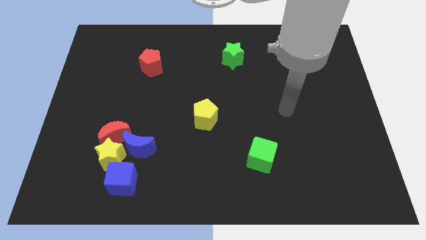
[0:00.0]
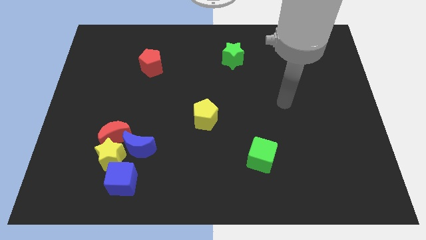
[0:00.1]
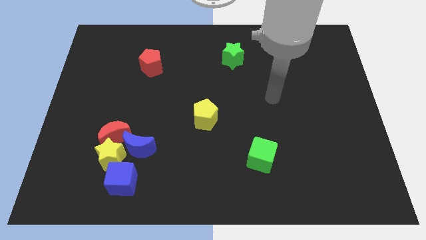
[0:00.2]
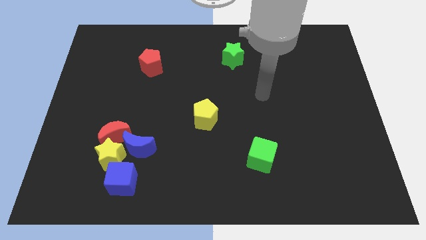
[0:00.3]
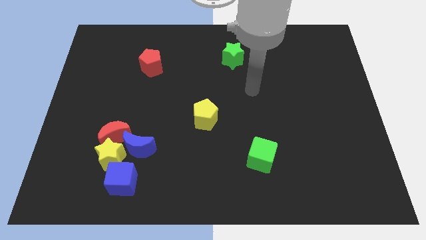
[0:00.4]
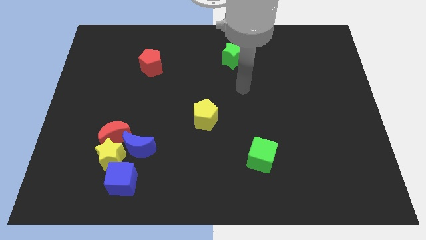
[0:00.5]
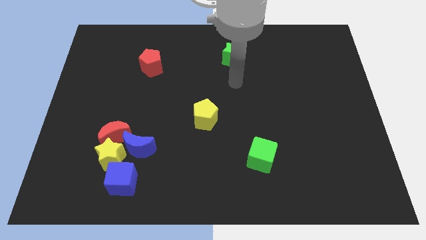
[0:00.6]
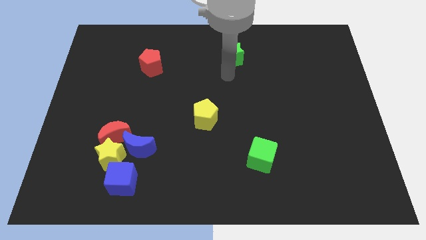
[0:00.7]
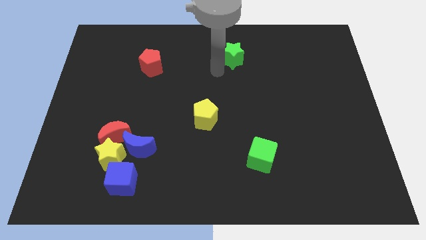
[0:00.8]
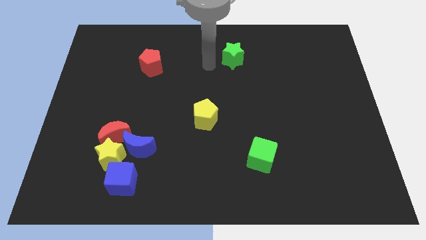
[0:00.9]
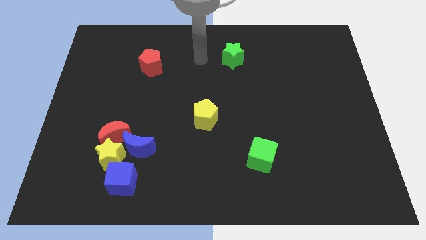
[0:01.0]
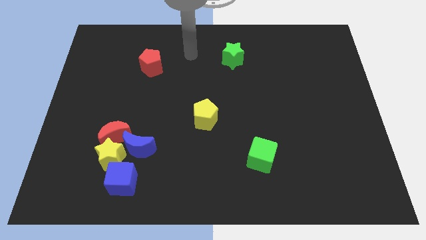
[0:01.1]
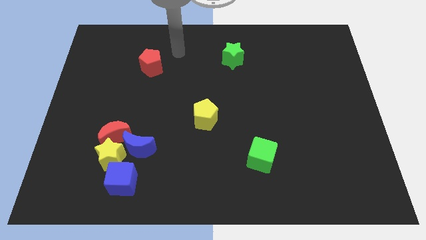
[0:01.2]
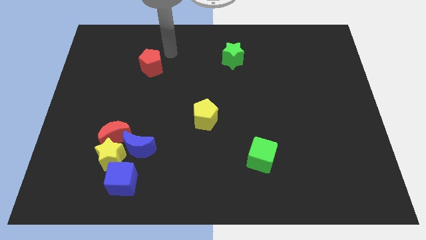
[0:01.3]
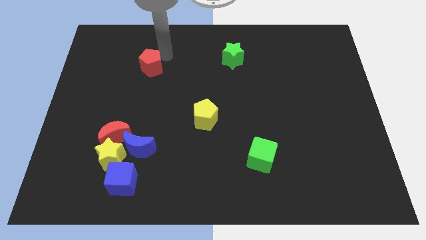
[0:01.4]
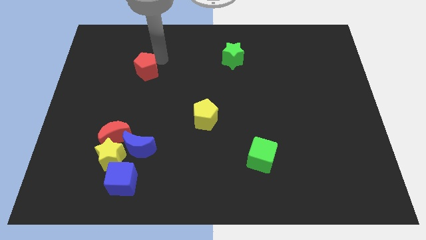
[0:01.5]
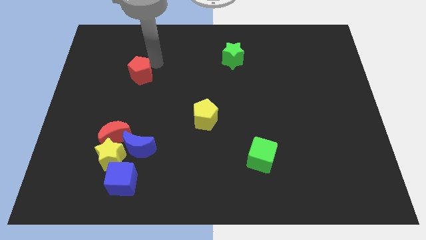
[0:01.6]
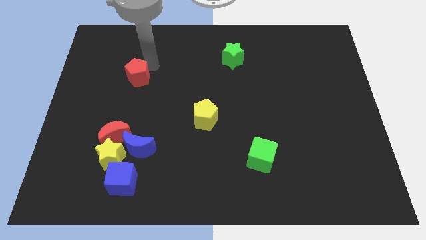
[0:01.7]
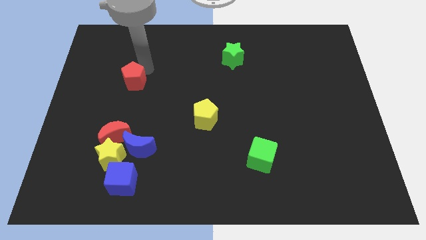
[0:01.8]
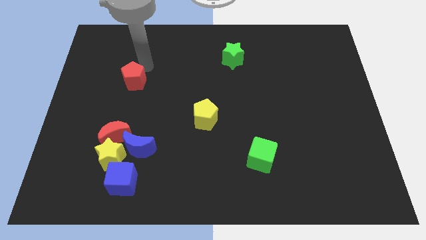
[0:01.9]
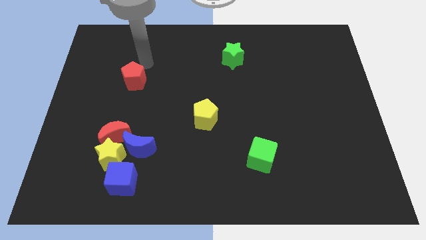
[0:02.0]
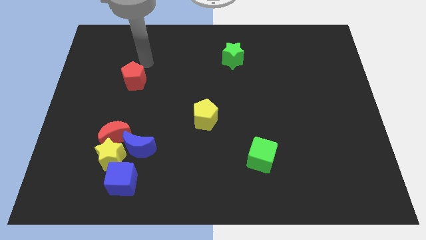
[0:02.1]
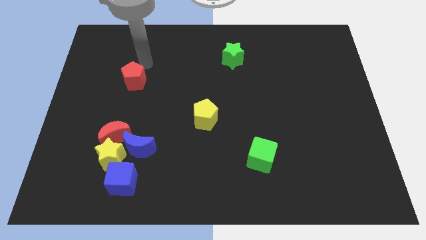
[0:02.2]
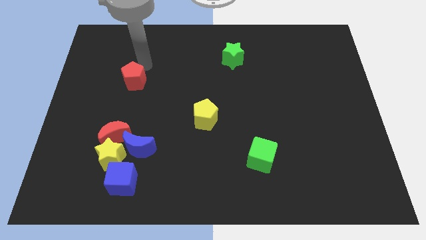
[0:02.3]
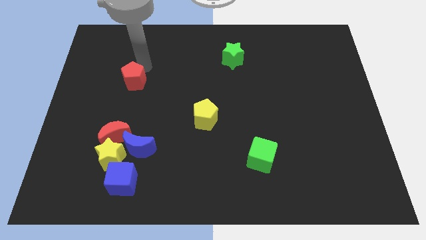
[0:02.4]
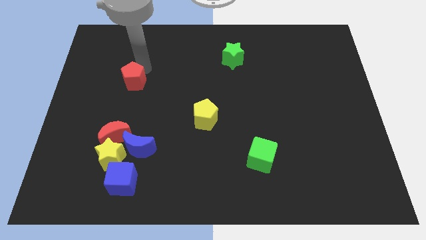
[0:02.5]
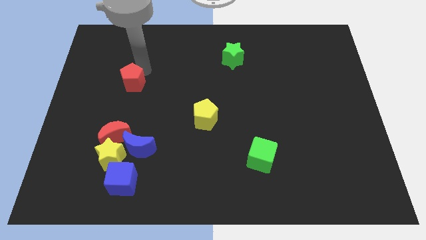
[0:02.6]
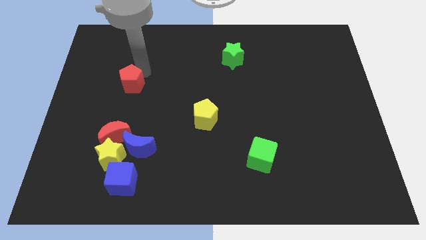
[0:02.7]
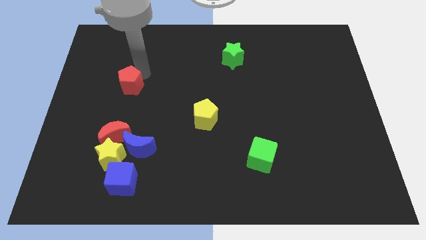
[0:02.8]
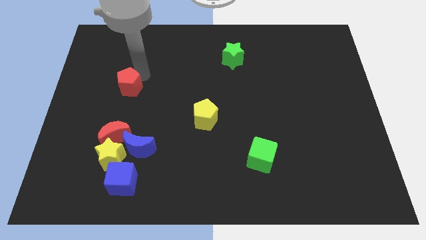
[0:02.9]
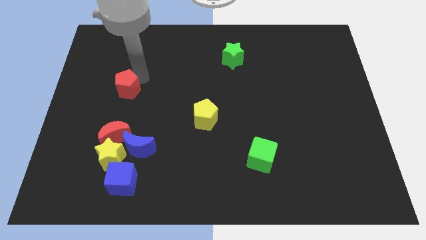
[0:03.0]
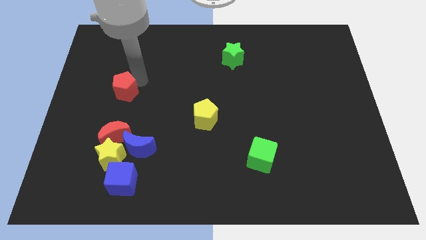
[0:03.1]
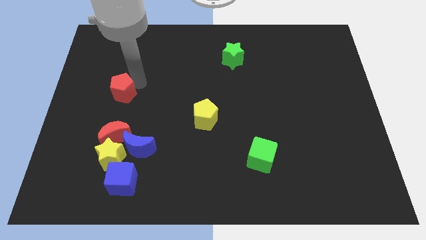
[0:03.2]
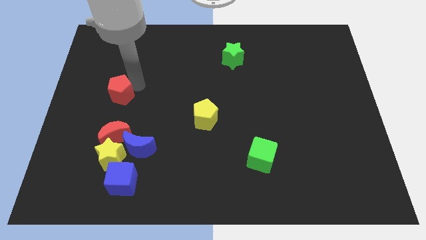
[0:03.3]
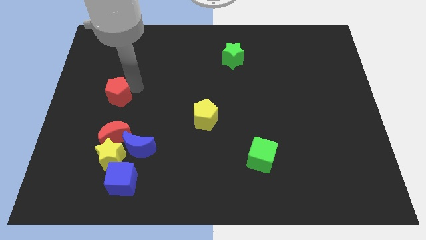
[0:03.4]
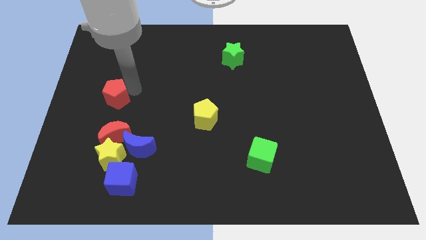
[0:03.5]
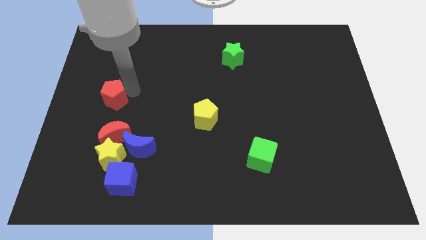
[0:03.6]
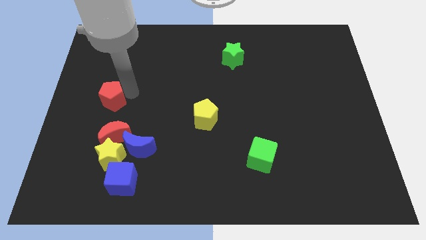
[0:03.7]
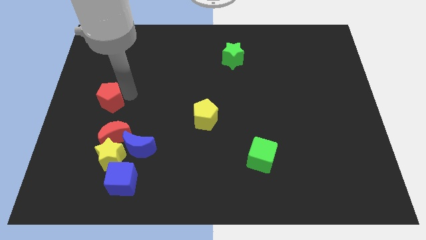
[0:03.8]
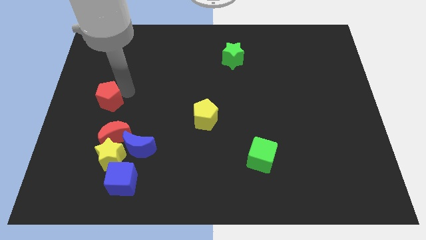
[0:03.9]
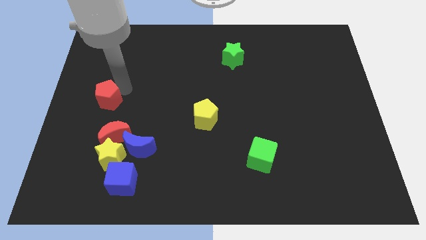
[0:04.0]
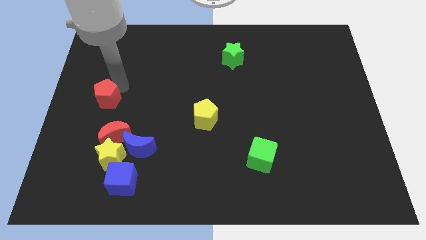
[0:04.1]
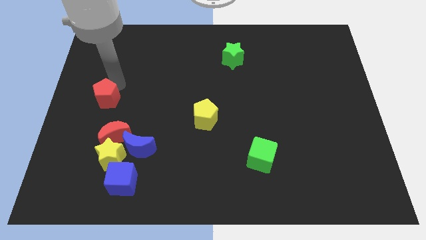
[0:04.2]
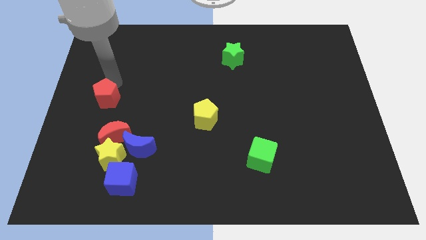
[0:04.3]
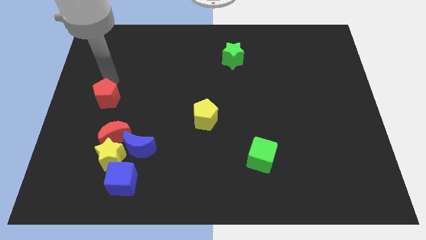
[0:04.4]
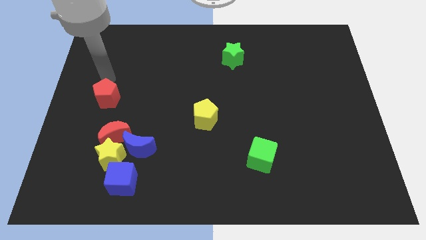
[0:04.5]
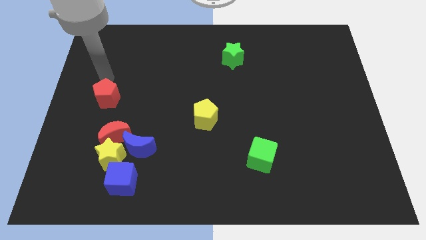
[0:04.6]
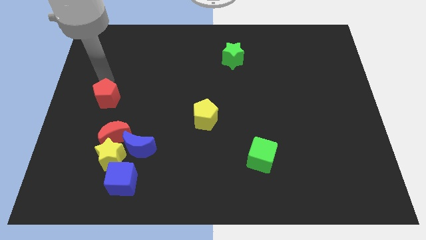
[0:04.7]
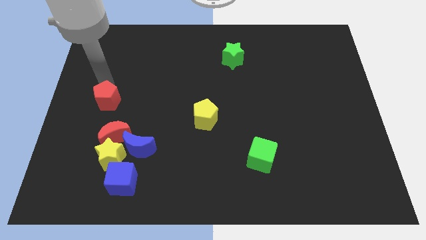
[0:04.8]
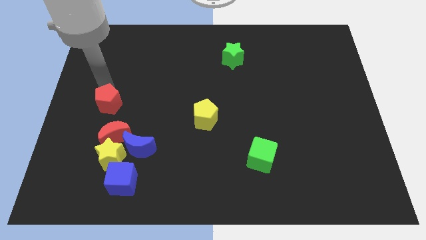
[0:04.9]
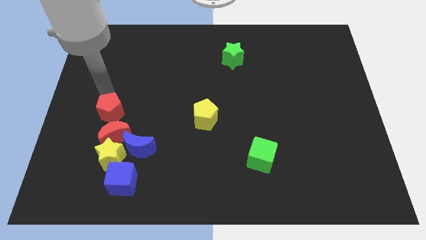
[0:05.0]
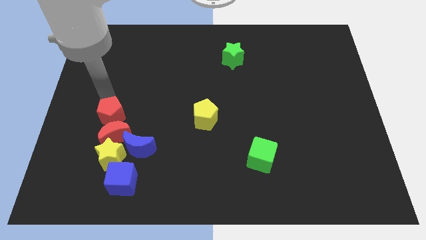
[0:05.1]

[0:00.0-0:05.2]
put the red pentagon to the red moon

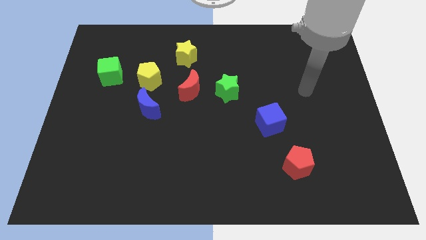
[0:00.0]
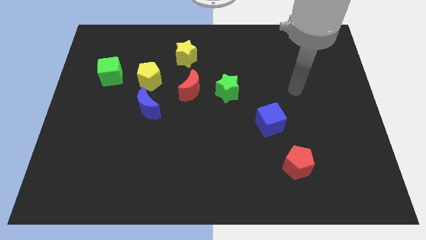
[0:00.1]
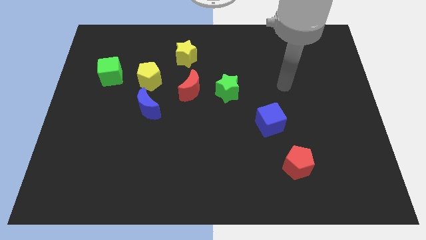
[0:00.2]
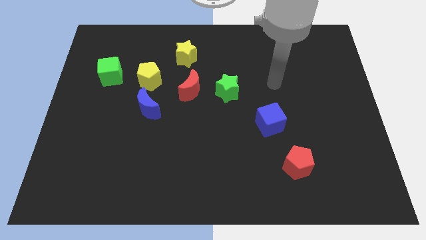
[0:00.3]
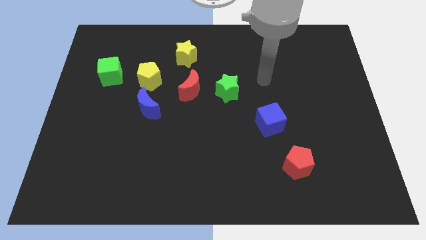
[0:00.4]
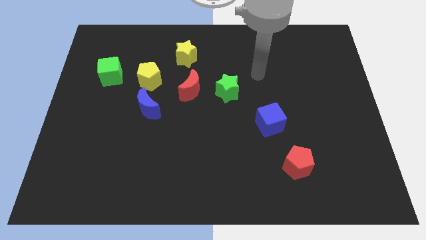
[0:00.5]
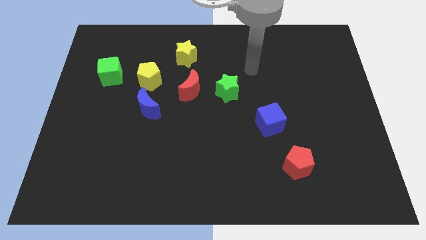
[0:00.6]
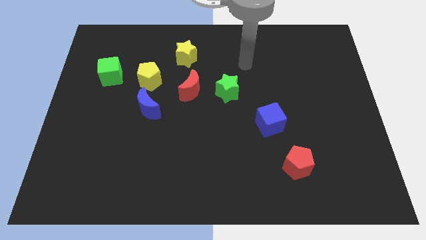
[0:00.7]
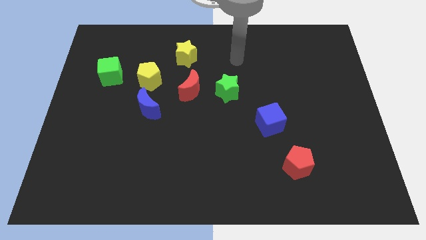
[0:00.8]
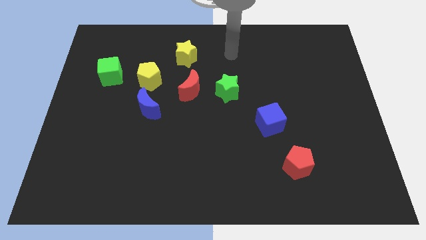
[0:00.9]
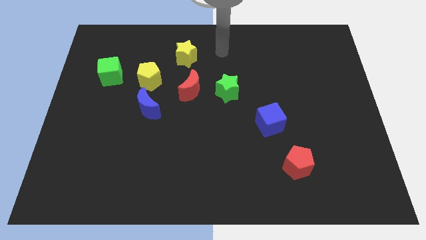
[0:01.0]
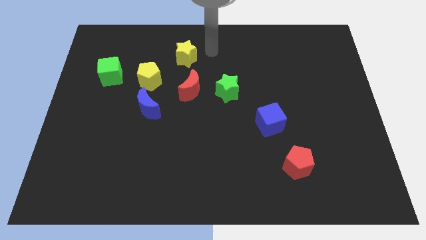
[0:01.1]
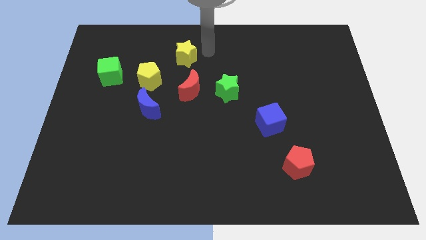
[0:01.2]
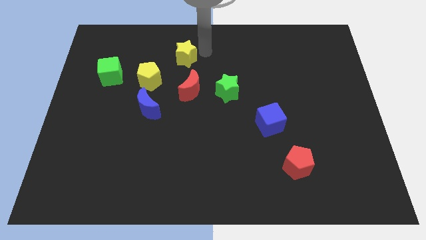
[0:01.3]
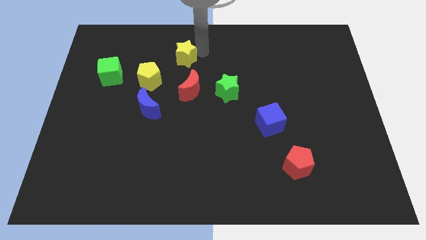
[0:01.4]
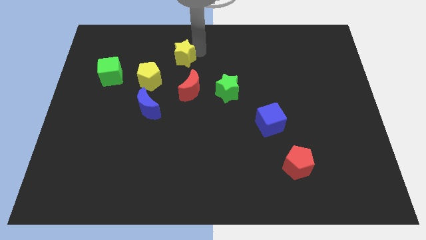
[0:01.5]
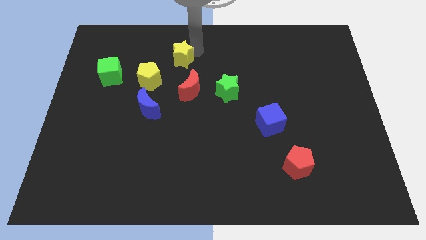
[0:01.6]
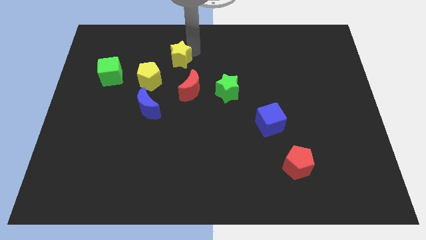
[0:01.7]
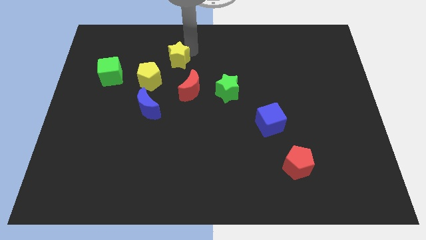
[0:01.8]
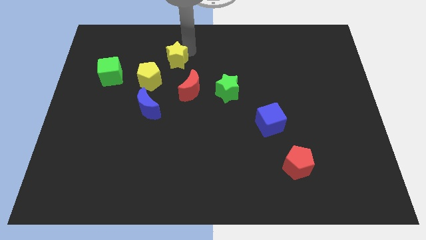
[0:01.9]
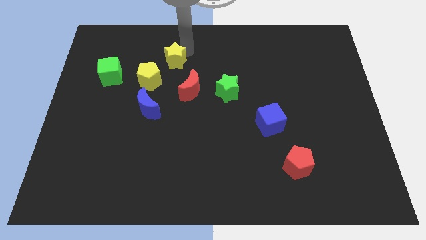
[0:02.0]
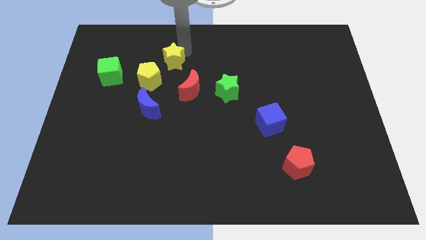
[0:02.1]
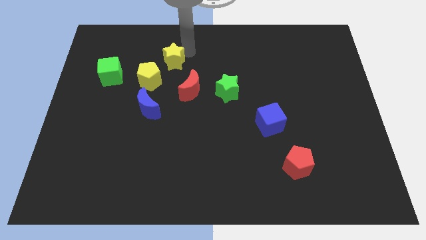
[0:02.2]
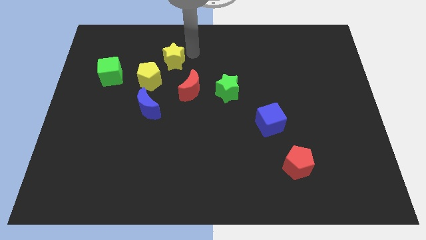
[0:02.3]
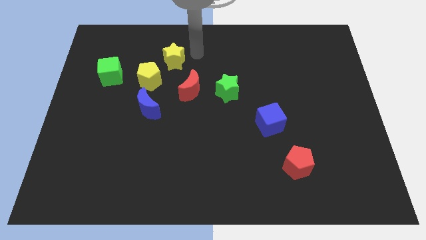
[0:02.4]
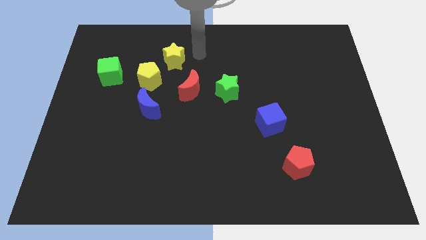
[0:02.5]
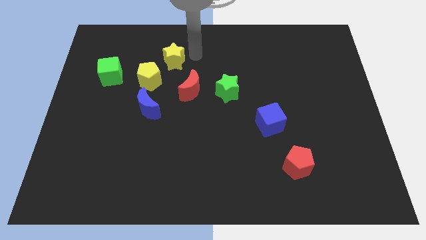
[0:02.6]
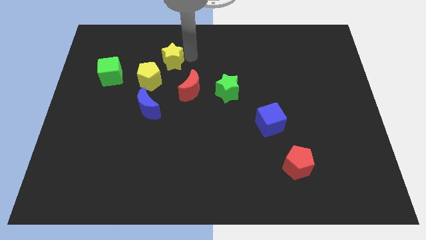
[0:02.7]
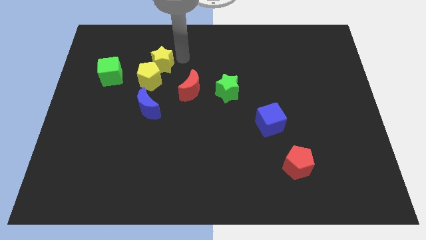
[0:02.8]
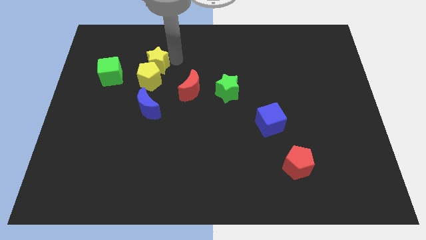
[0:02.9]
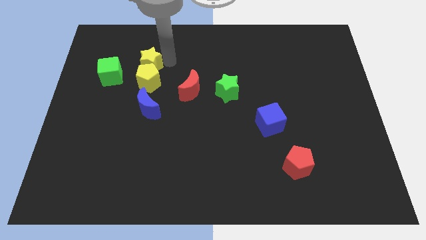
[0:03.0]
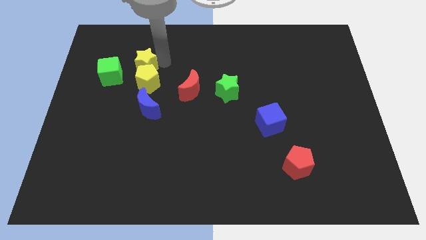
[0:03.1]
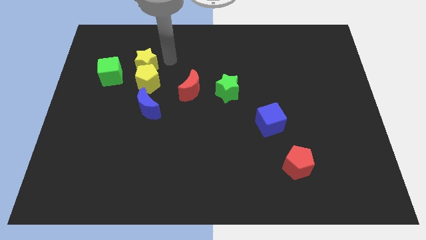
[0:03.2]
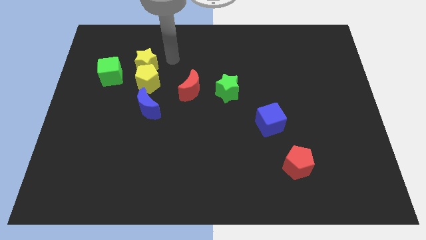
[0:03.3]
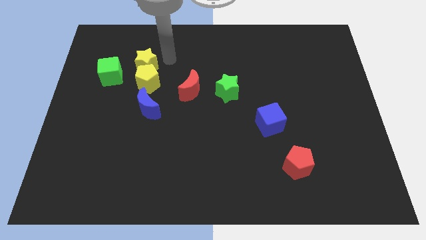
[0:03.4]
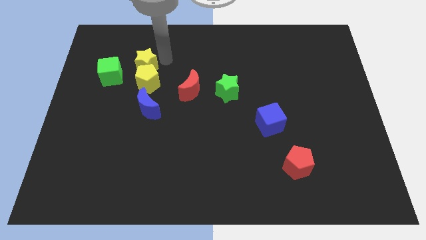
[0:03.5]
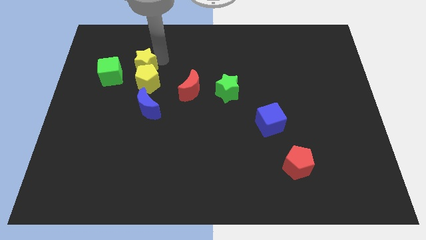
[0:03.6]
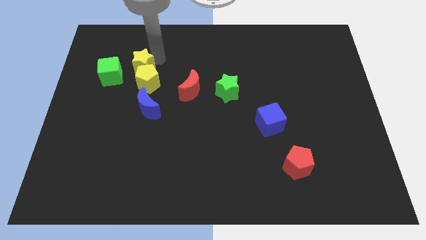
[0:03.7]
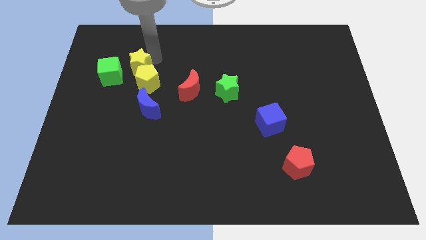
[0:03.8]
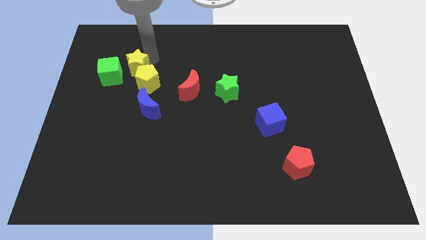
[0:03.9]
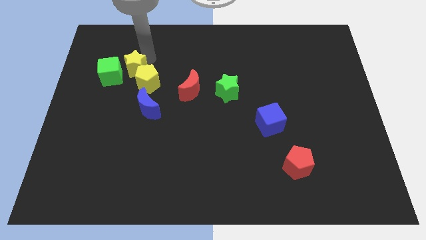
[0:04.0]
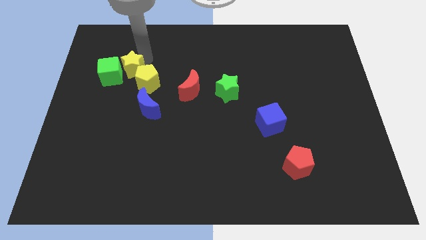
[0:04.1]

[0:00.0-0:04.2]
put the yellow star to the green cube
